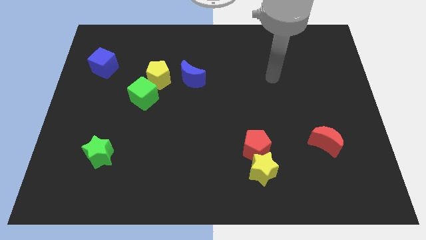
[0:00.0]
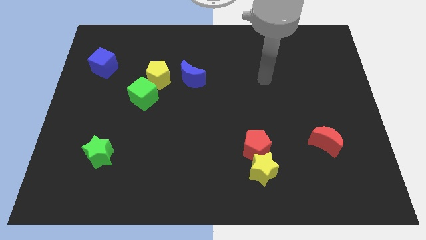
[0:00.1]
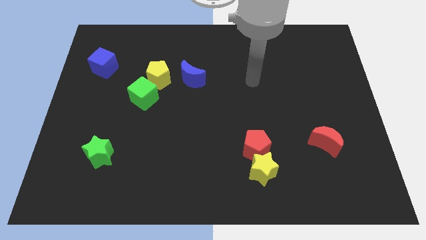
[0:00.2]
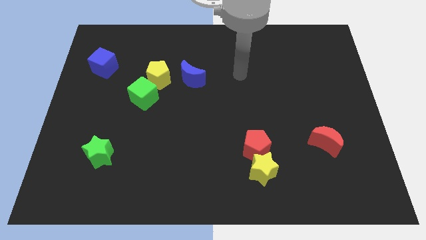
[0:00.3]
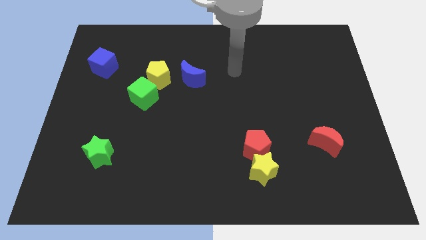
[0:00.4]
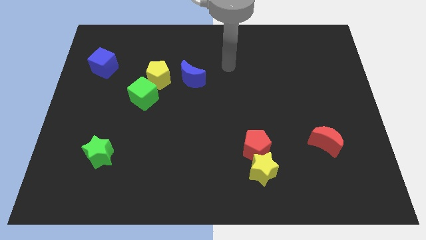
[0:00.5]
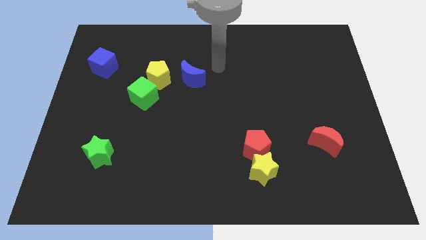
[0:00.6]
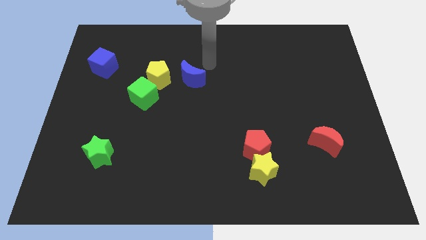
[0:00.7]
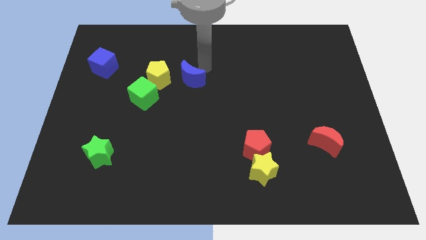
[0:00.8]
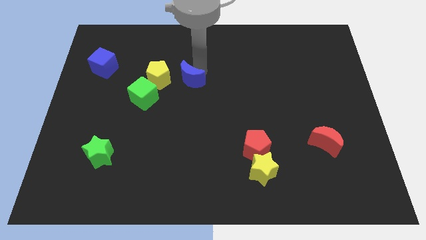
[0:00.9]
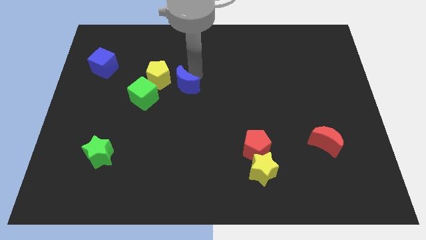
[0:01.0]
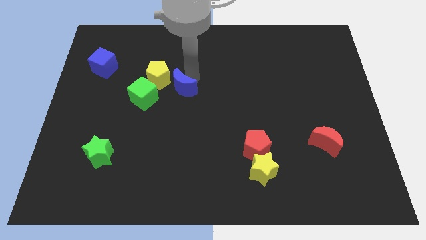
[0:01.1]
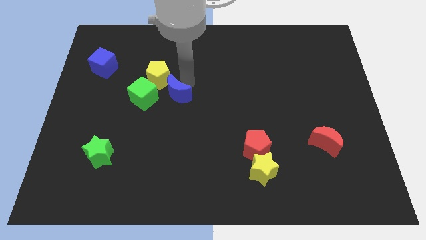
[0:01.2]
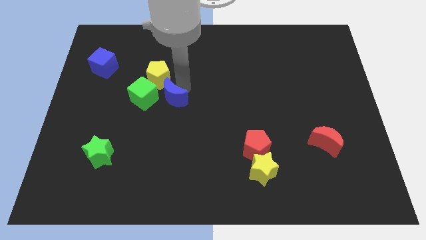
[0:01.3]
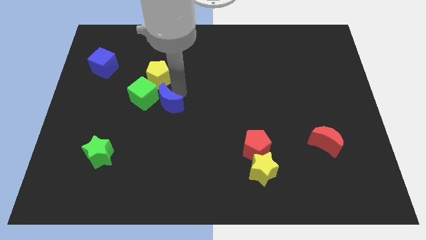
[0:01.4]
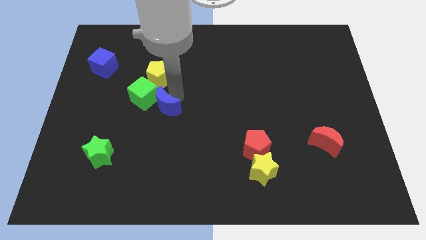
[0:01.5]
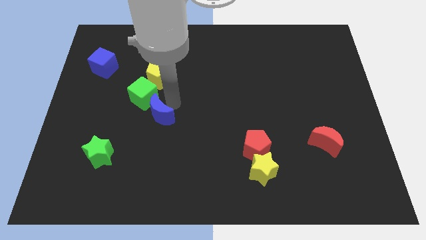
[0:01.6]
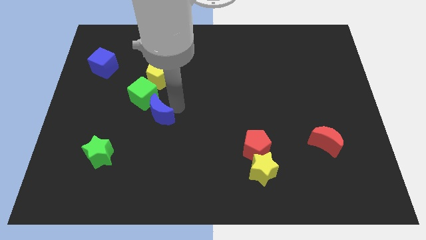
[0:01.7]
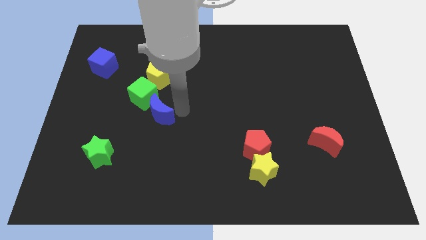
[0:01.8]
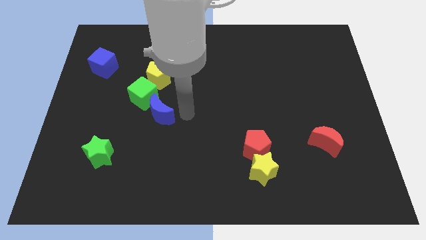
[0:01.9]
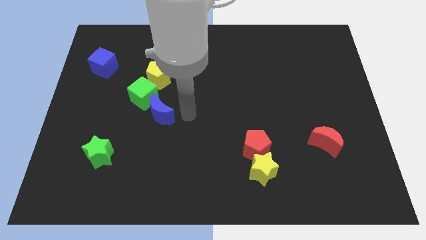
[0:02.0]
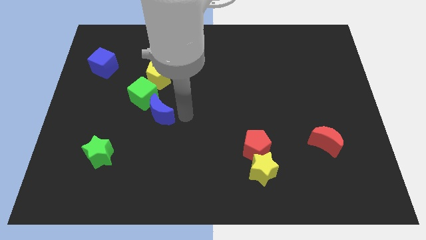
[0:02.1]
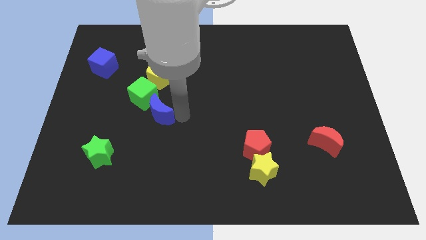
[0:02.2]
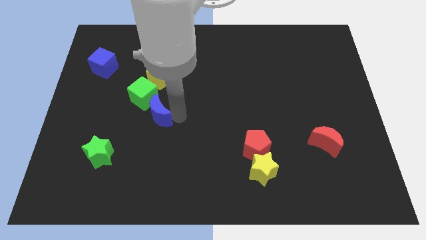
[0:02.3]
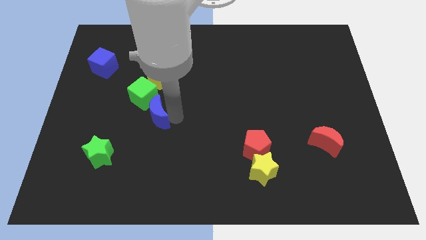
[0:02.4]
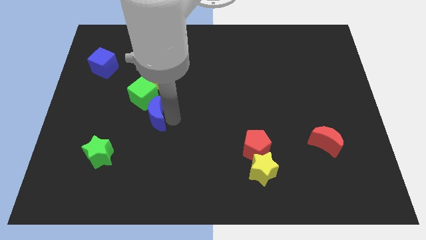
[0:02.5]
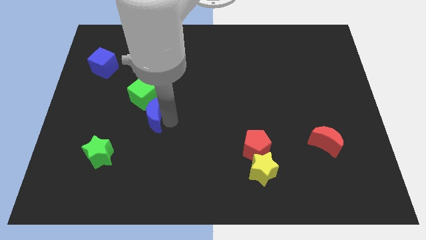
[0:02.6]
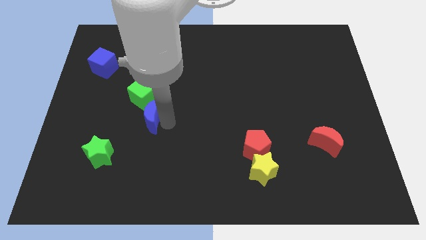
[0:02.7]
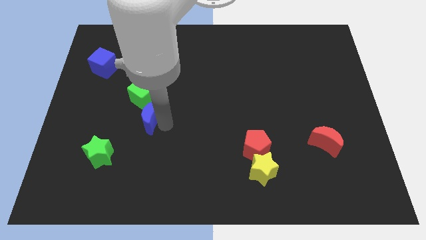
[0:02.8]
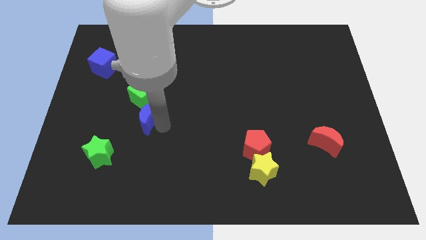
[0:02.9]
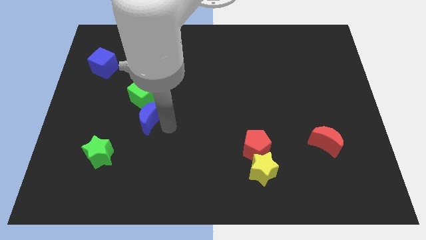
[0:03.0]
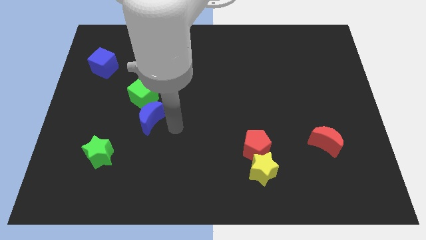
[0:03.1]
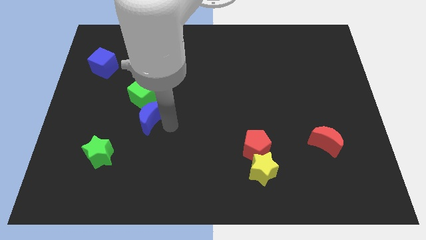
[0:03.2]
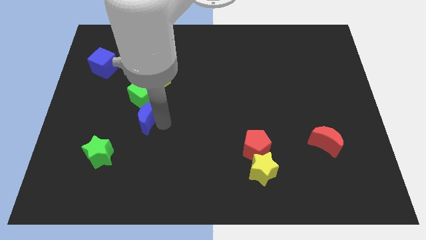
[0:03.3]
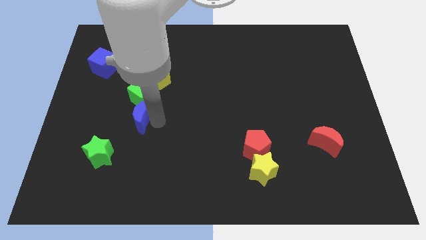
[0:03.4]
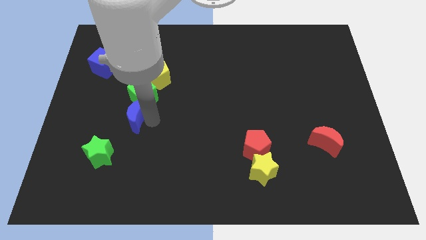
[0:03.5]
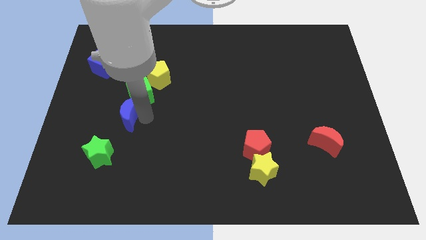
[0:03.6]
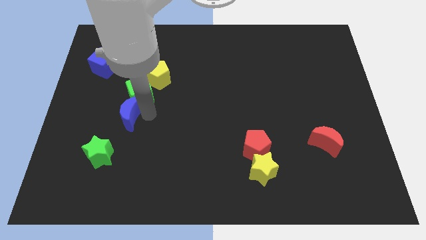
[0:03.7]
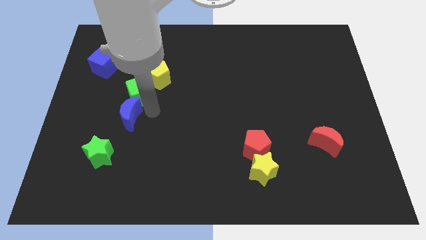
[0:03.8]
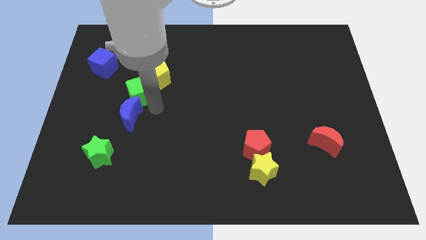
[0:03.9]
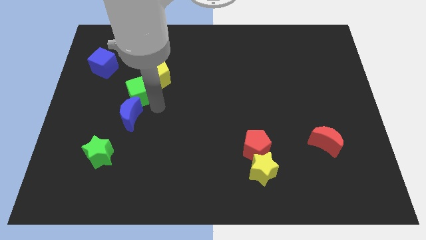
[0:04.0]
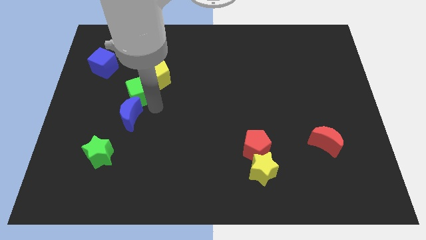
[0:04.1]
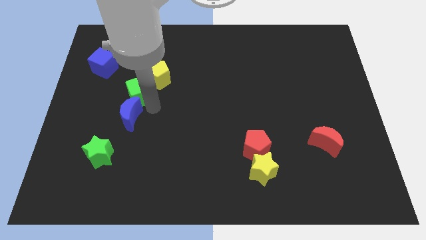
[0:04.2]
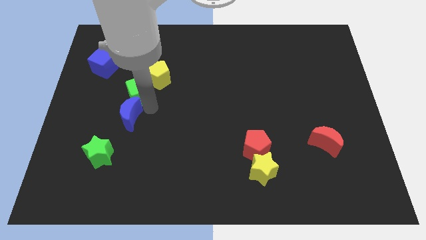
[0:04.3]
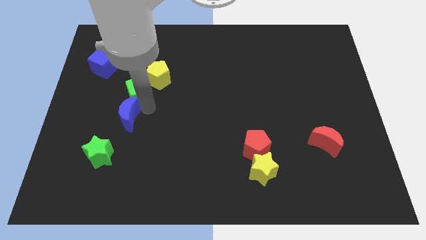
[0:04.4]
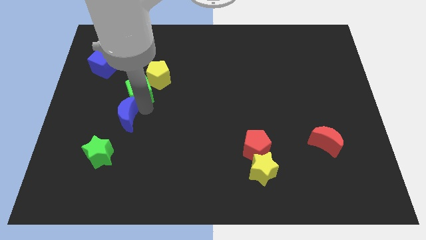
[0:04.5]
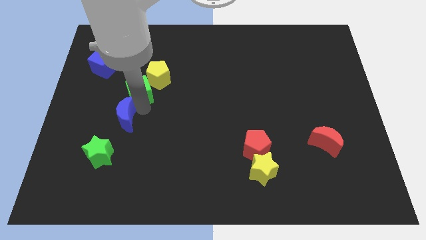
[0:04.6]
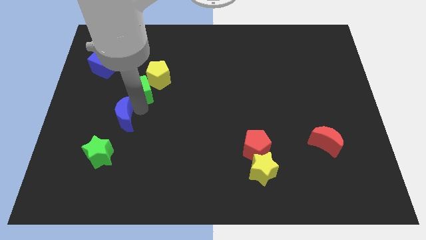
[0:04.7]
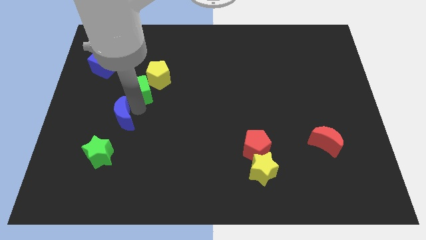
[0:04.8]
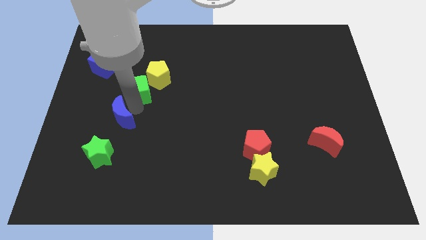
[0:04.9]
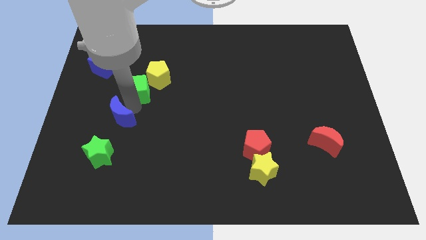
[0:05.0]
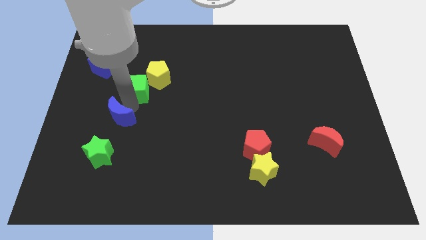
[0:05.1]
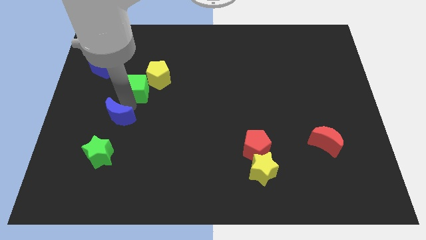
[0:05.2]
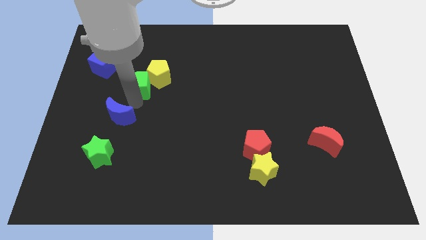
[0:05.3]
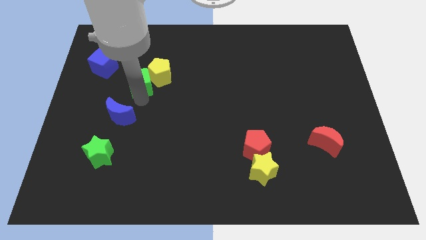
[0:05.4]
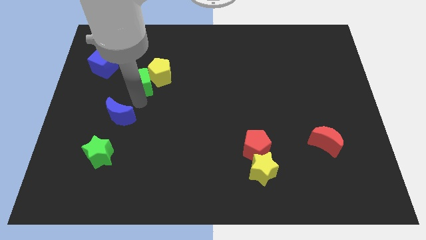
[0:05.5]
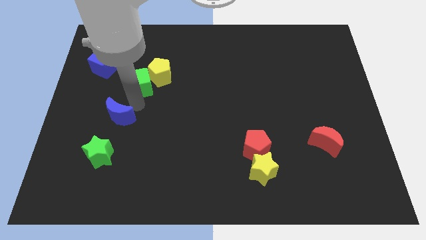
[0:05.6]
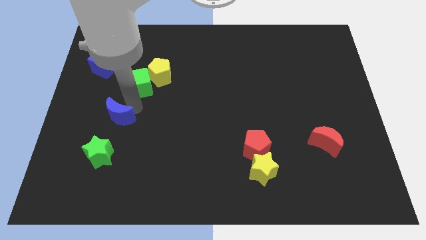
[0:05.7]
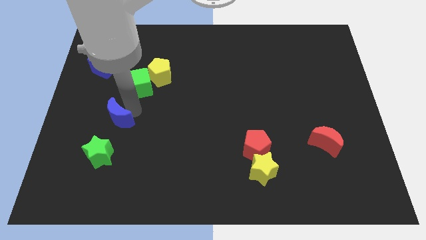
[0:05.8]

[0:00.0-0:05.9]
slide the blue moon down and to the left

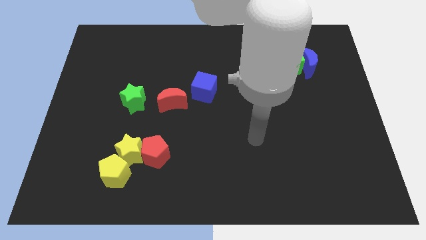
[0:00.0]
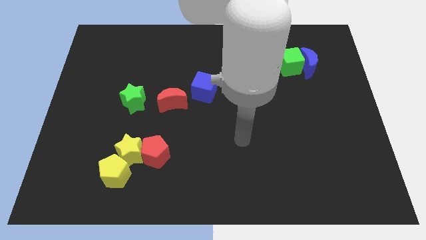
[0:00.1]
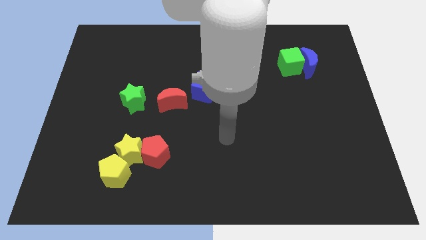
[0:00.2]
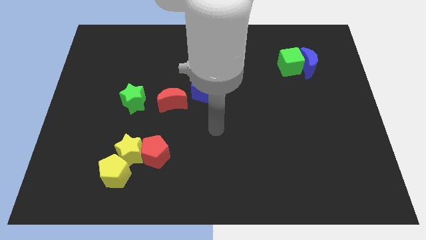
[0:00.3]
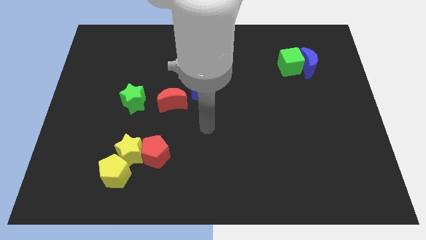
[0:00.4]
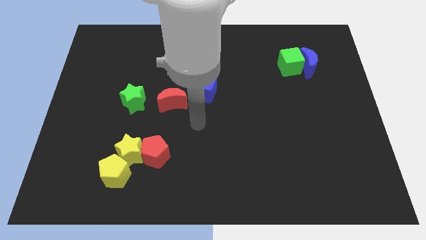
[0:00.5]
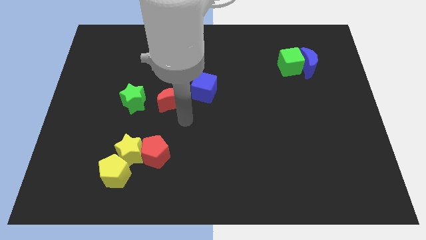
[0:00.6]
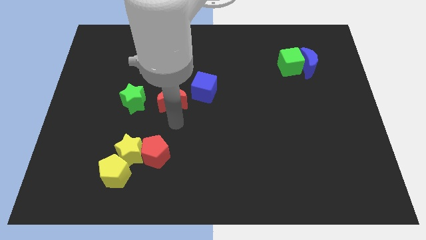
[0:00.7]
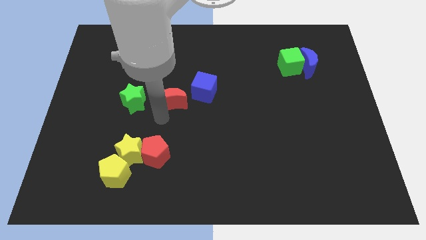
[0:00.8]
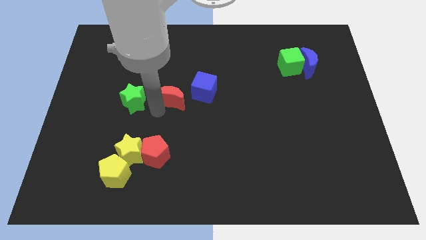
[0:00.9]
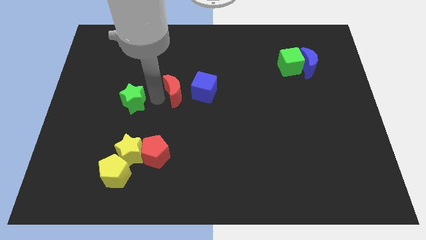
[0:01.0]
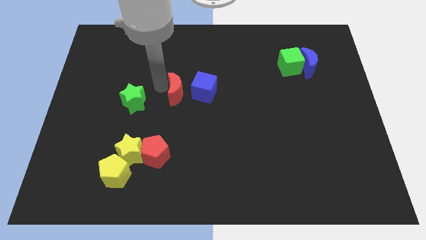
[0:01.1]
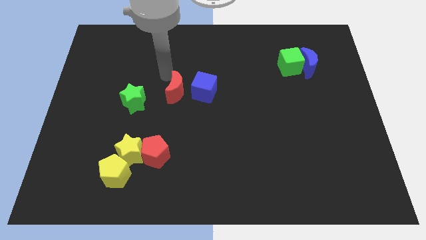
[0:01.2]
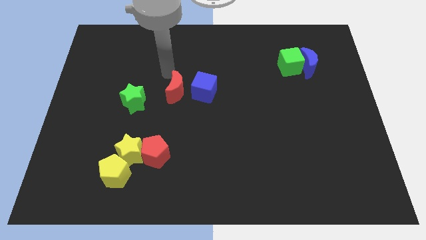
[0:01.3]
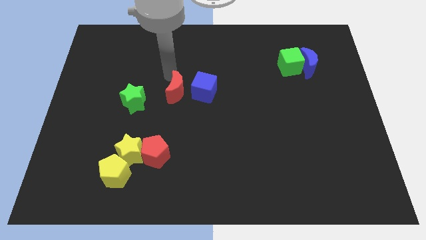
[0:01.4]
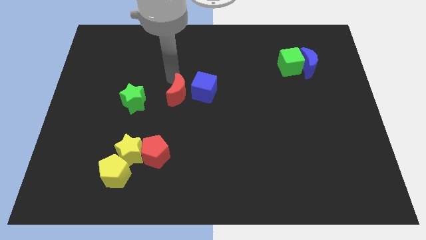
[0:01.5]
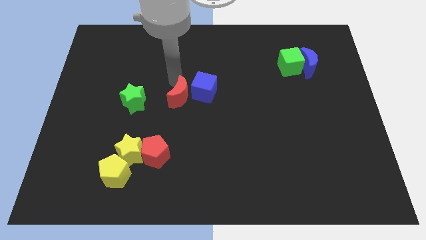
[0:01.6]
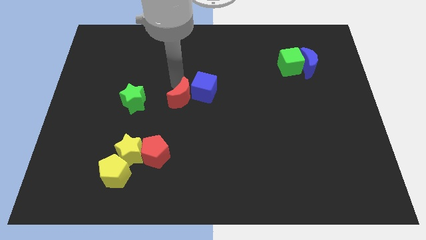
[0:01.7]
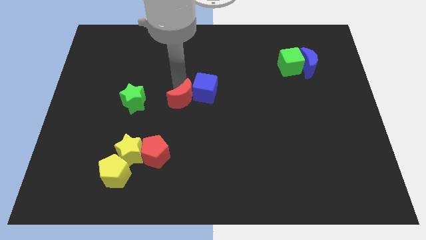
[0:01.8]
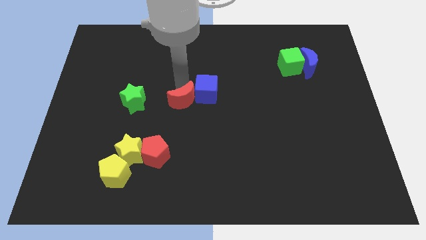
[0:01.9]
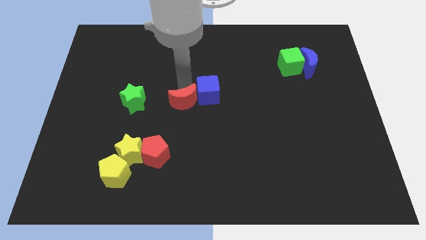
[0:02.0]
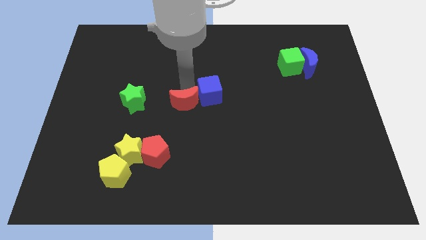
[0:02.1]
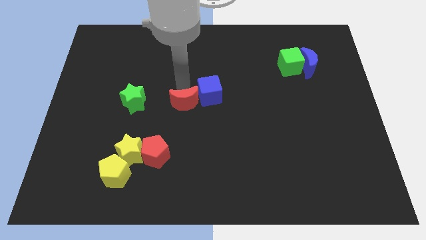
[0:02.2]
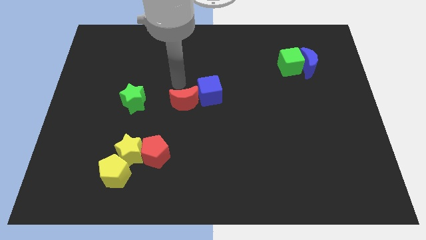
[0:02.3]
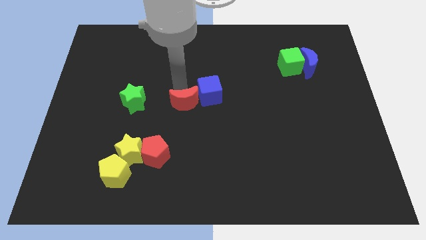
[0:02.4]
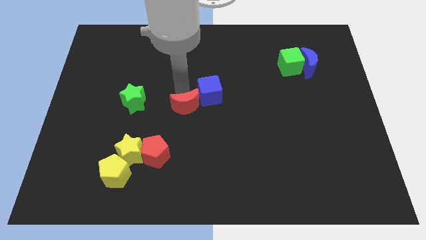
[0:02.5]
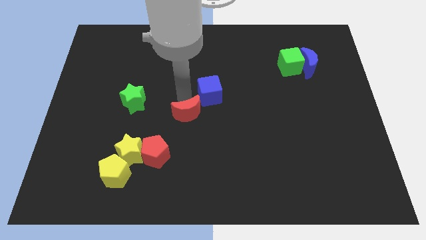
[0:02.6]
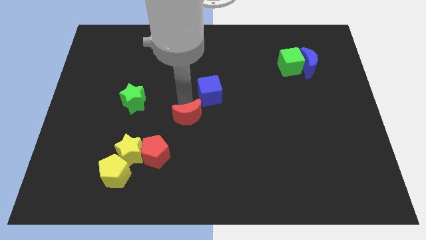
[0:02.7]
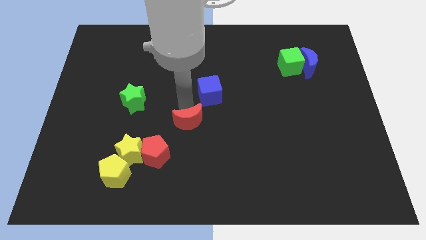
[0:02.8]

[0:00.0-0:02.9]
slightly slide the red moon downwards and right
